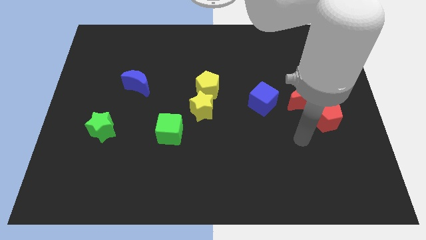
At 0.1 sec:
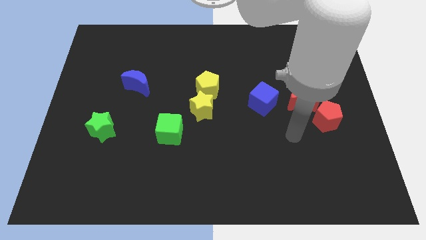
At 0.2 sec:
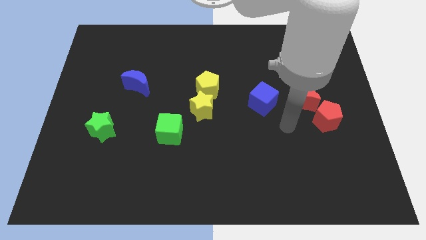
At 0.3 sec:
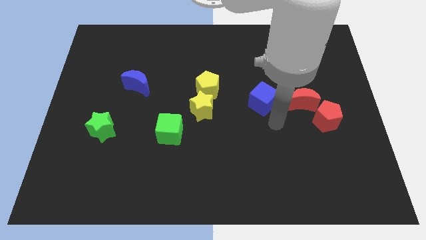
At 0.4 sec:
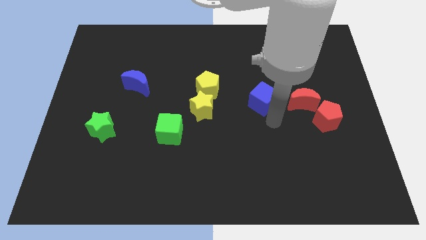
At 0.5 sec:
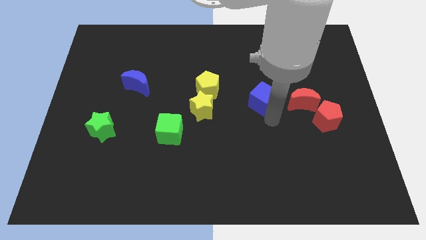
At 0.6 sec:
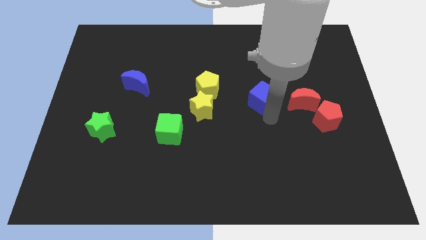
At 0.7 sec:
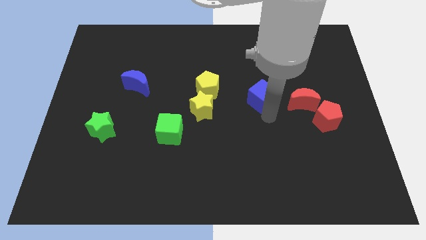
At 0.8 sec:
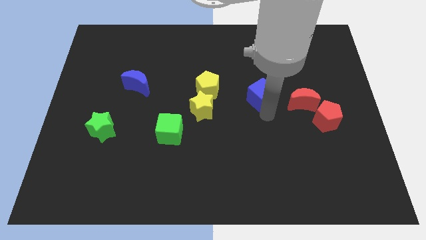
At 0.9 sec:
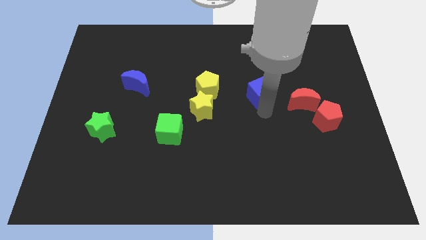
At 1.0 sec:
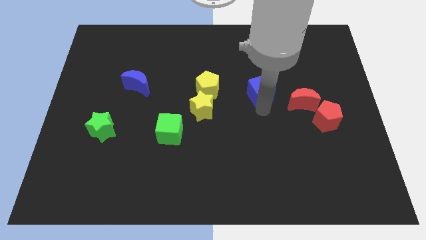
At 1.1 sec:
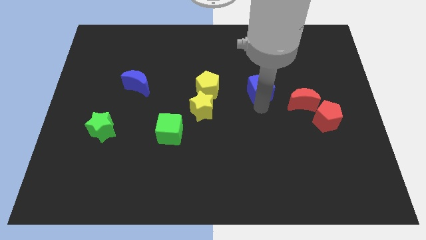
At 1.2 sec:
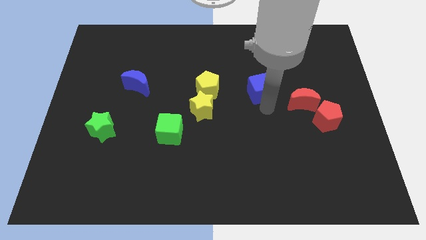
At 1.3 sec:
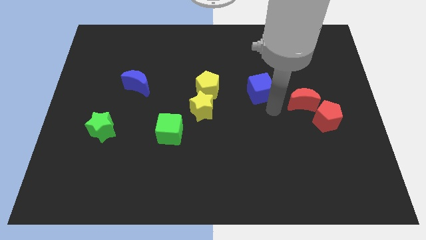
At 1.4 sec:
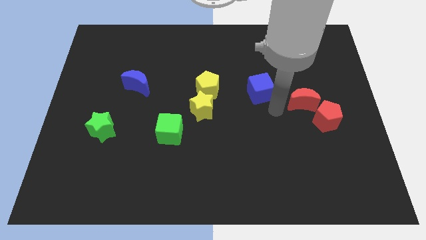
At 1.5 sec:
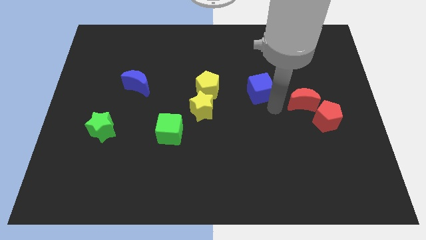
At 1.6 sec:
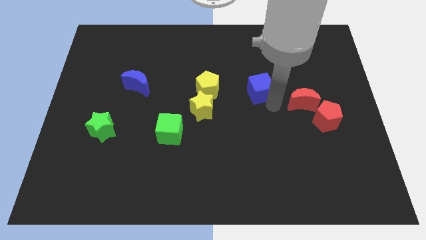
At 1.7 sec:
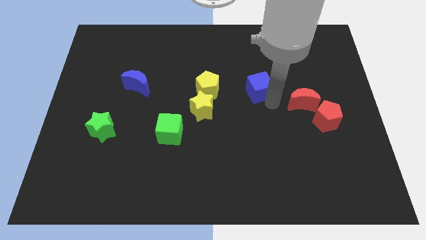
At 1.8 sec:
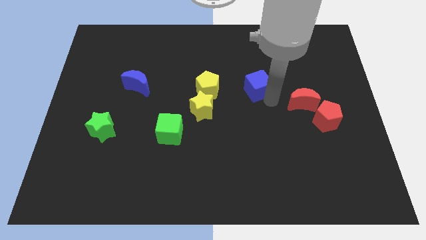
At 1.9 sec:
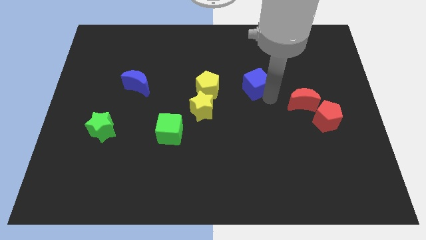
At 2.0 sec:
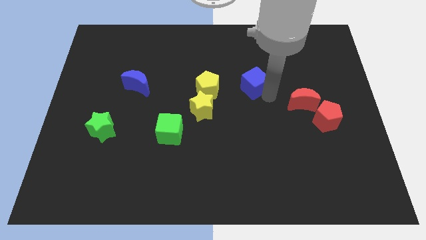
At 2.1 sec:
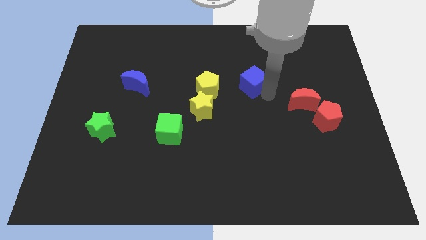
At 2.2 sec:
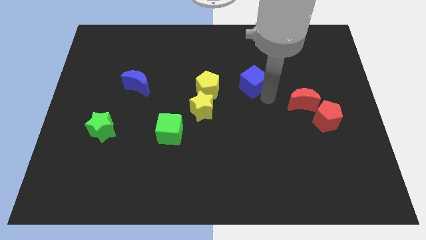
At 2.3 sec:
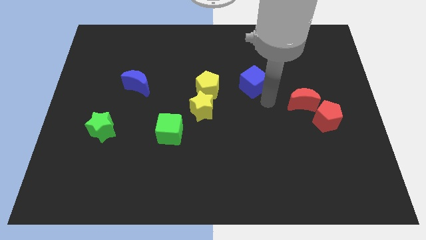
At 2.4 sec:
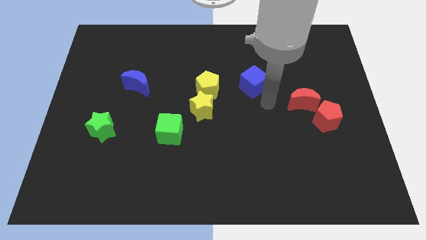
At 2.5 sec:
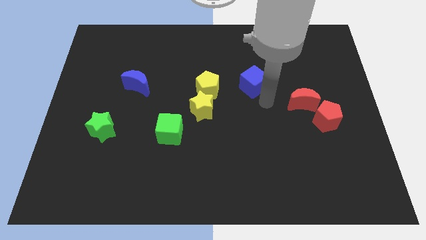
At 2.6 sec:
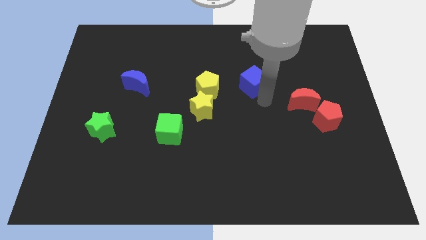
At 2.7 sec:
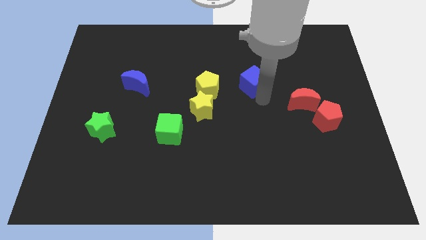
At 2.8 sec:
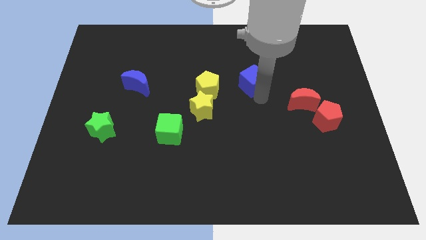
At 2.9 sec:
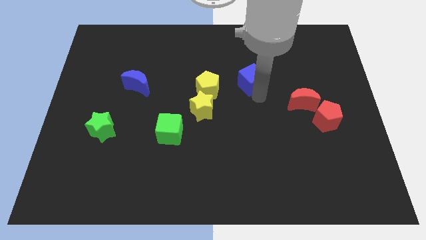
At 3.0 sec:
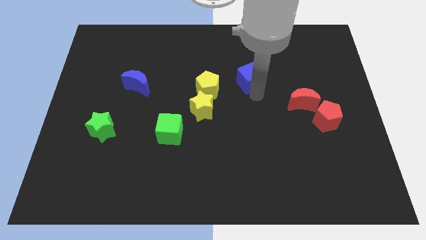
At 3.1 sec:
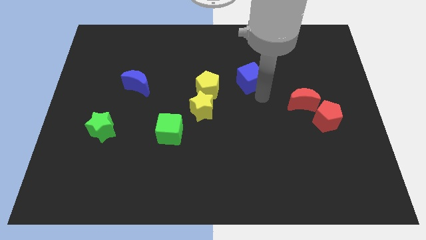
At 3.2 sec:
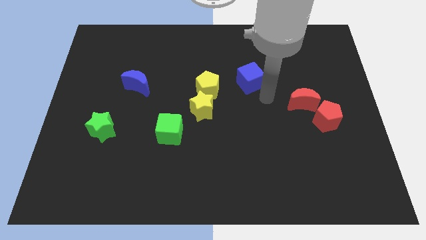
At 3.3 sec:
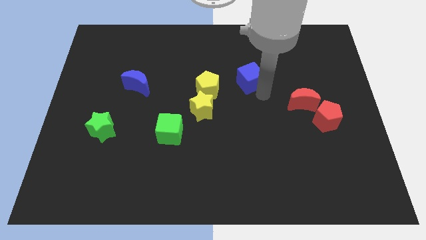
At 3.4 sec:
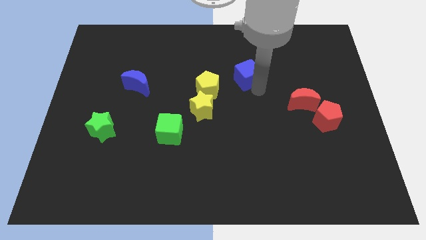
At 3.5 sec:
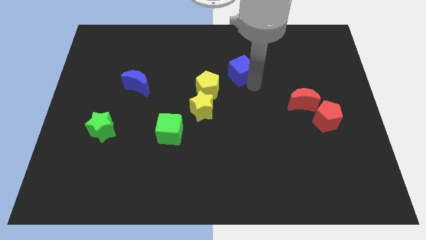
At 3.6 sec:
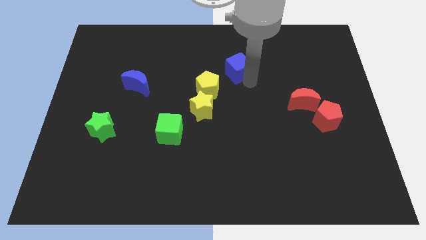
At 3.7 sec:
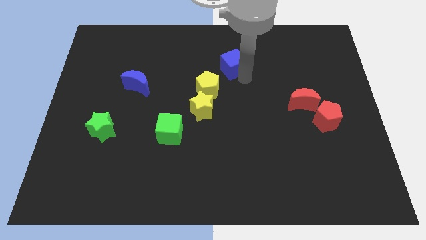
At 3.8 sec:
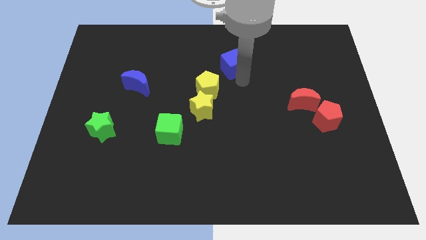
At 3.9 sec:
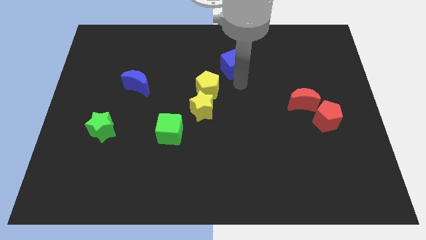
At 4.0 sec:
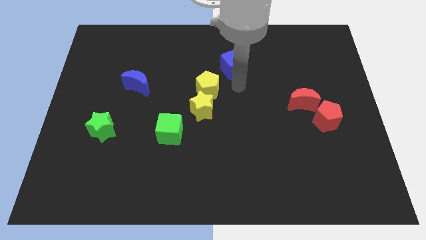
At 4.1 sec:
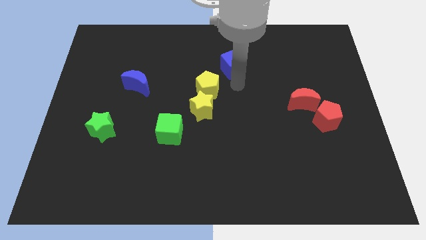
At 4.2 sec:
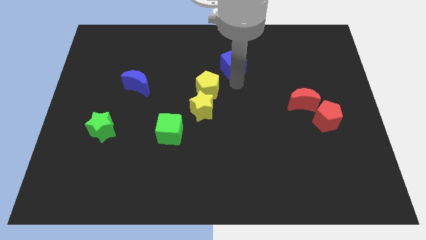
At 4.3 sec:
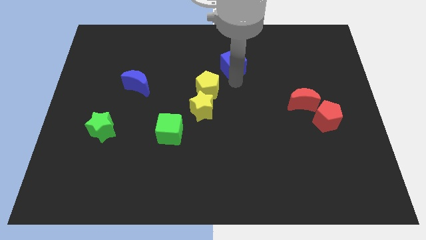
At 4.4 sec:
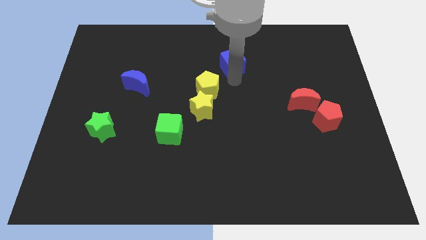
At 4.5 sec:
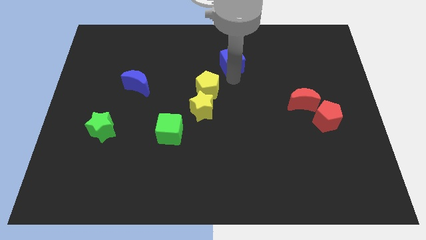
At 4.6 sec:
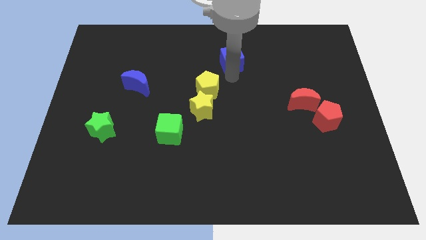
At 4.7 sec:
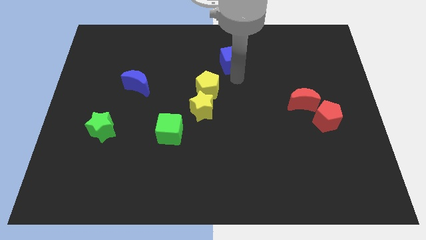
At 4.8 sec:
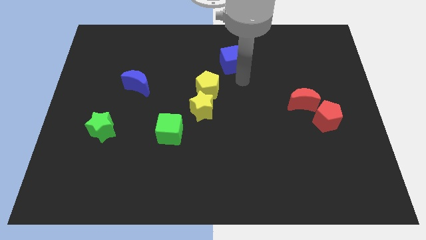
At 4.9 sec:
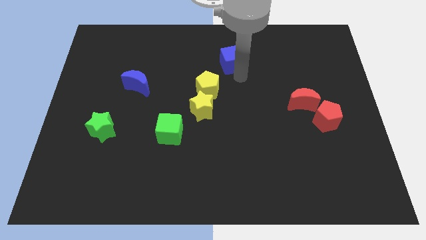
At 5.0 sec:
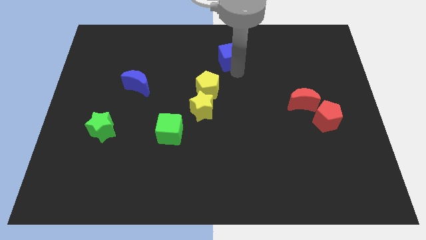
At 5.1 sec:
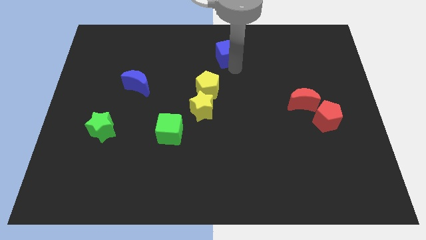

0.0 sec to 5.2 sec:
move the blue cube to the towards your base
